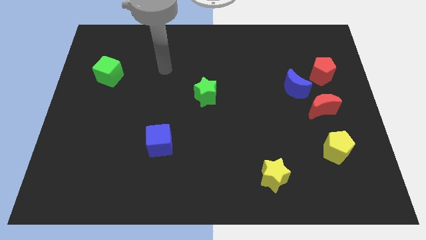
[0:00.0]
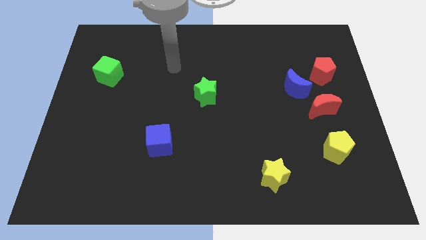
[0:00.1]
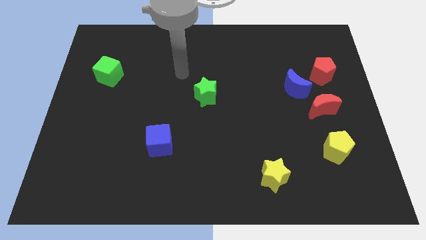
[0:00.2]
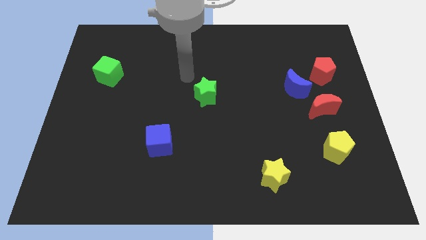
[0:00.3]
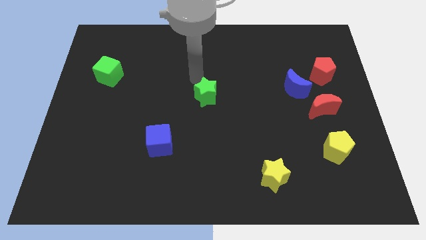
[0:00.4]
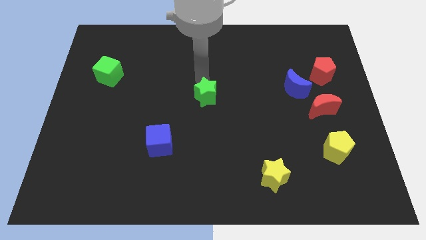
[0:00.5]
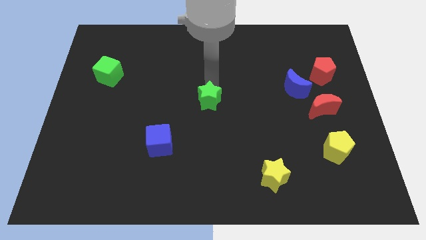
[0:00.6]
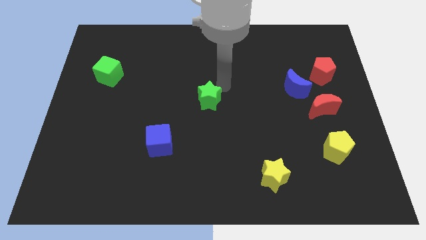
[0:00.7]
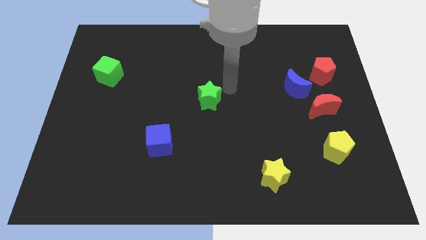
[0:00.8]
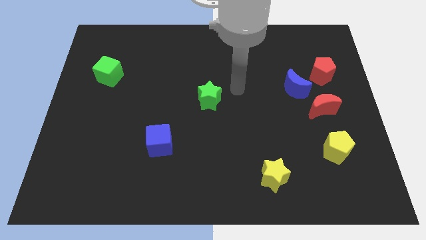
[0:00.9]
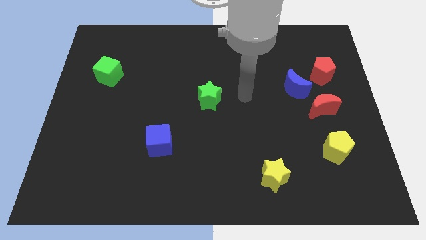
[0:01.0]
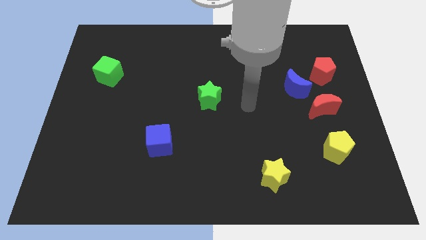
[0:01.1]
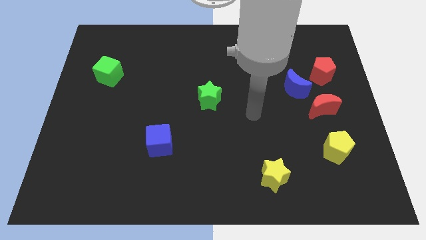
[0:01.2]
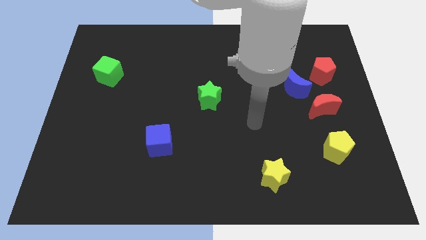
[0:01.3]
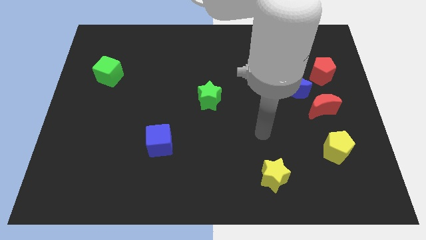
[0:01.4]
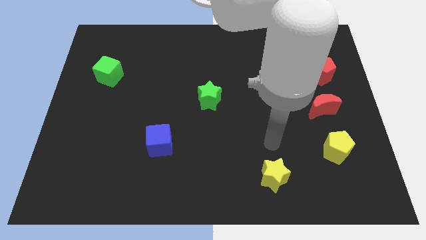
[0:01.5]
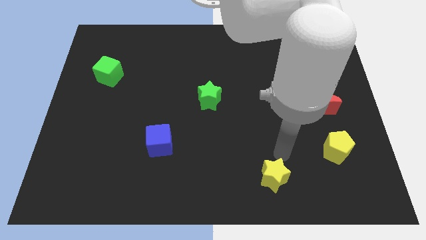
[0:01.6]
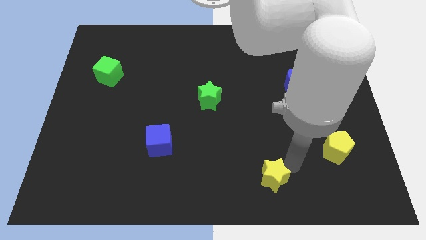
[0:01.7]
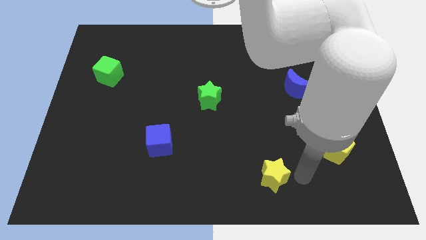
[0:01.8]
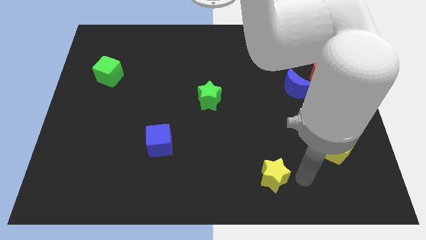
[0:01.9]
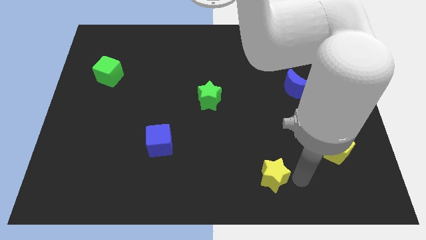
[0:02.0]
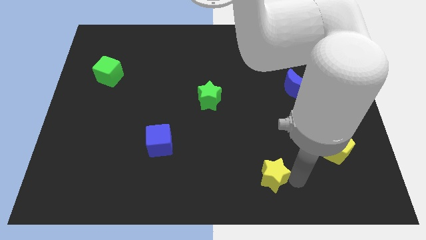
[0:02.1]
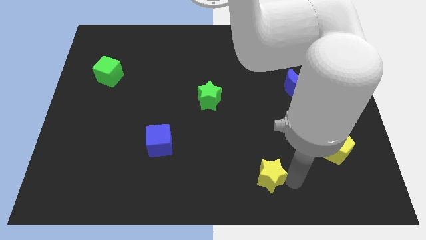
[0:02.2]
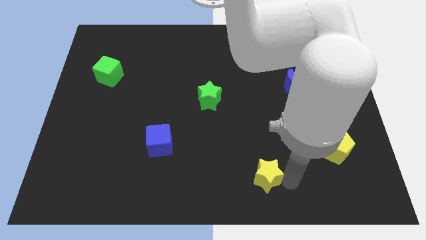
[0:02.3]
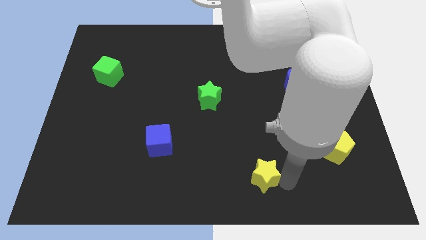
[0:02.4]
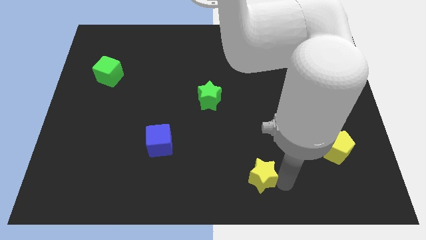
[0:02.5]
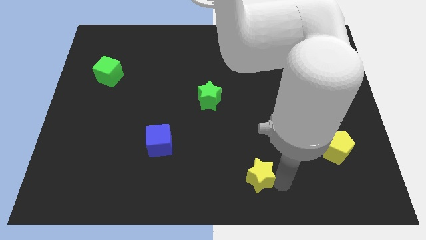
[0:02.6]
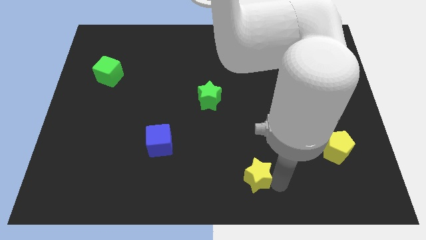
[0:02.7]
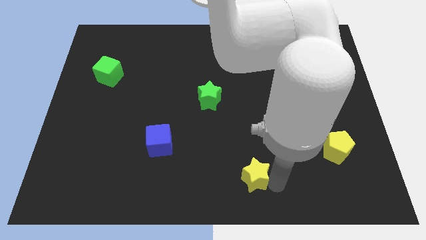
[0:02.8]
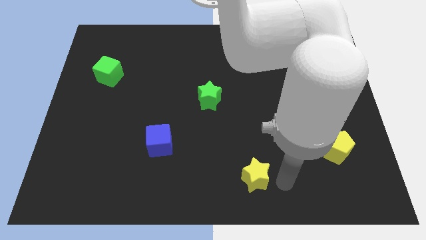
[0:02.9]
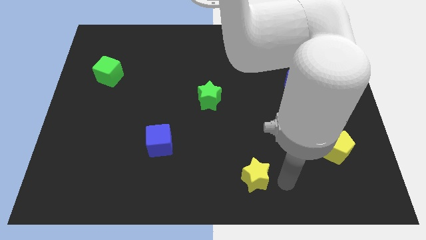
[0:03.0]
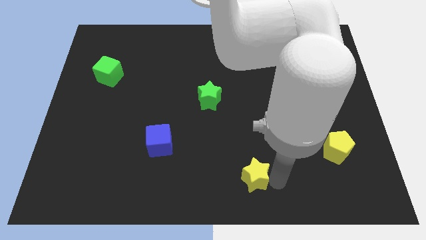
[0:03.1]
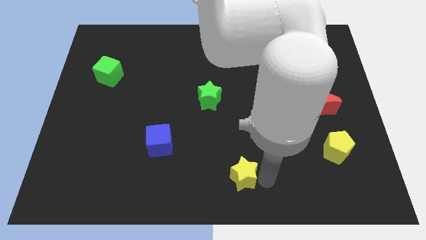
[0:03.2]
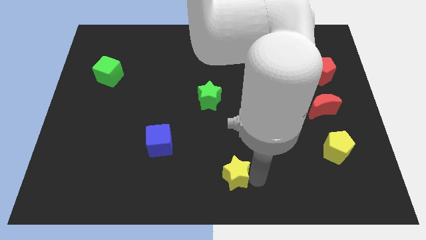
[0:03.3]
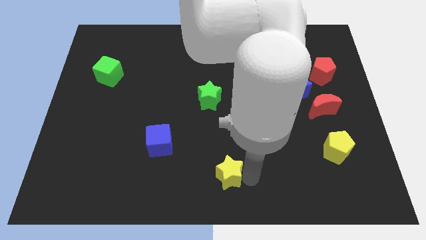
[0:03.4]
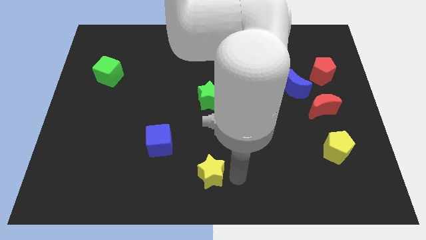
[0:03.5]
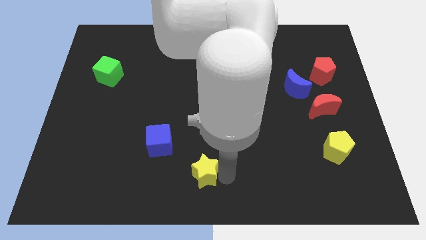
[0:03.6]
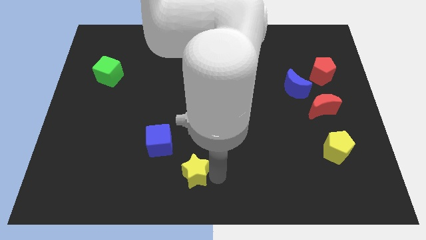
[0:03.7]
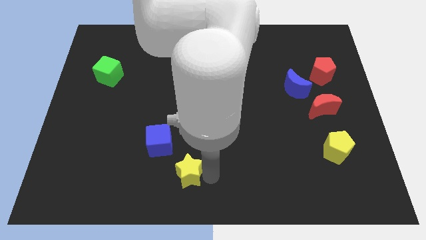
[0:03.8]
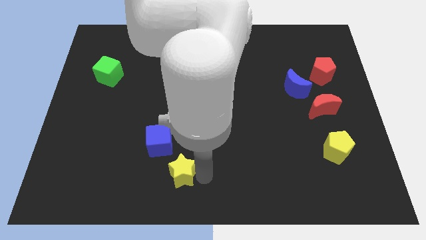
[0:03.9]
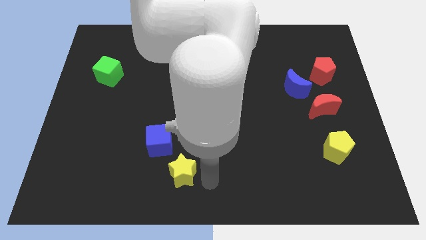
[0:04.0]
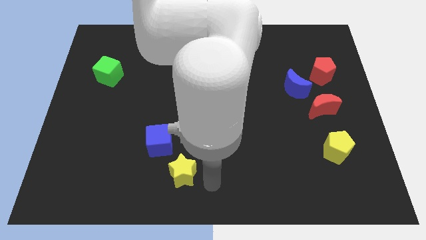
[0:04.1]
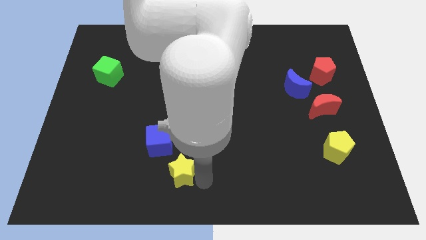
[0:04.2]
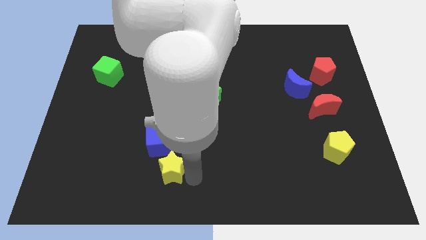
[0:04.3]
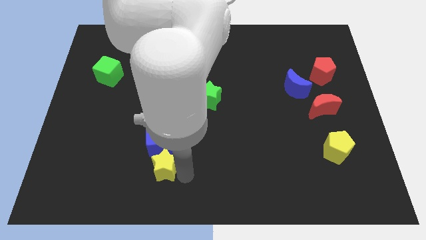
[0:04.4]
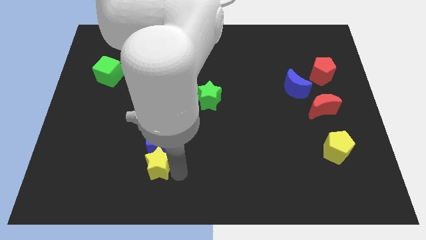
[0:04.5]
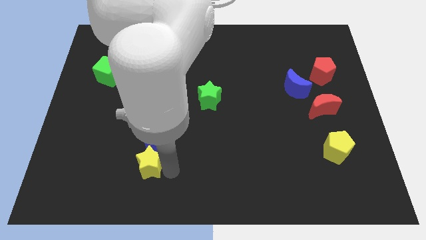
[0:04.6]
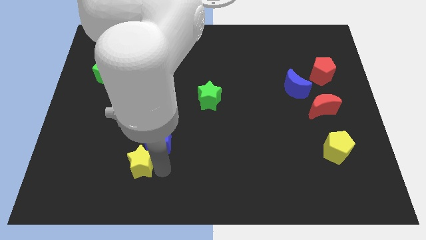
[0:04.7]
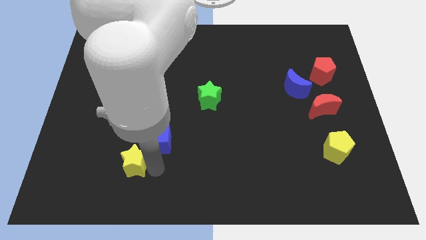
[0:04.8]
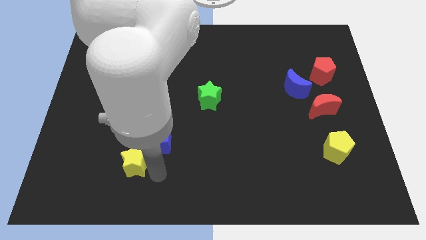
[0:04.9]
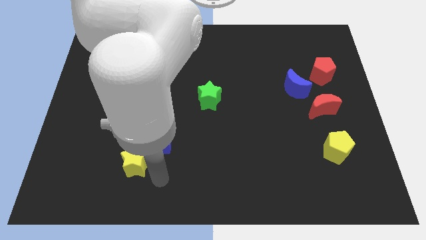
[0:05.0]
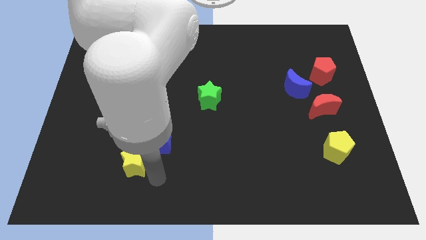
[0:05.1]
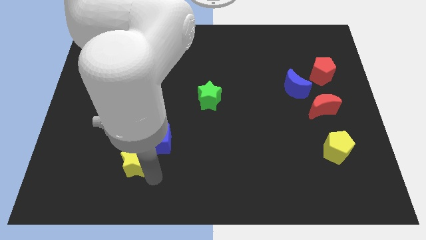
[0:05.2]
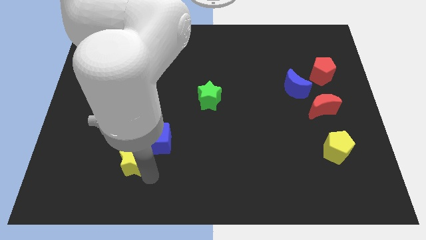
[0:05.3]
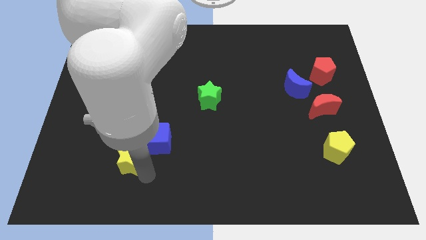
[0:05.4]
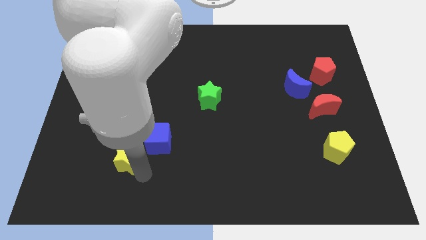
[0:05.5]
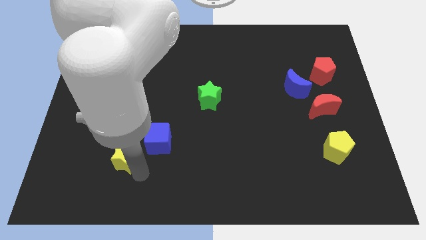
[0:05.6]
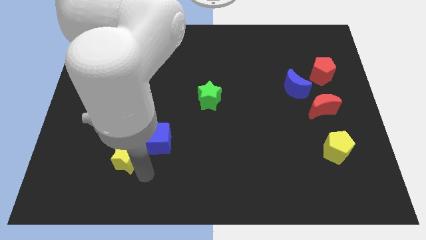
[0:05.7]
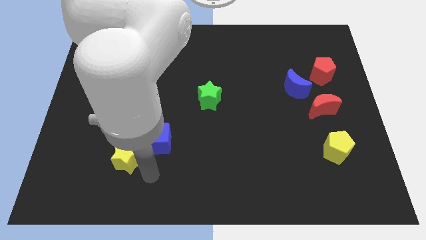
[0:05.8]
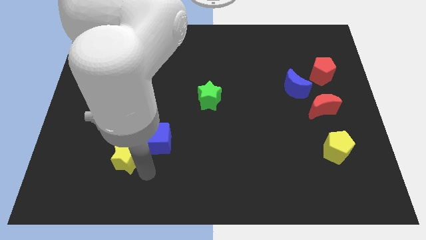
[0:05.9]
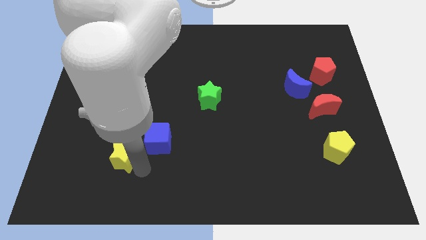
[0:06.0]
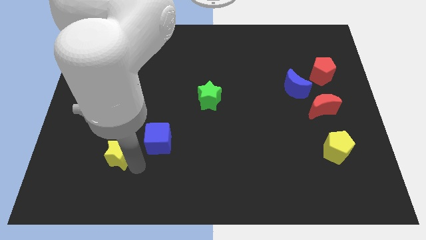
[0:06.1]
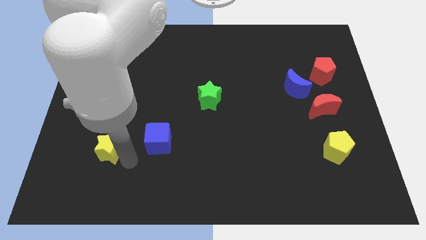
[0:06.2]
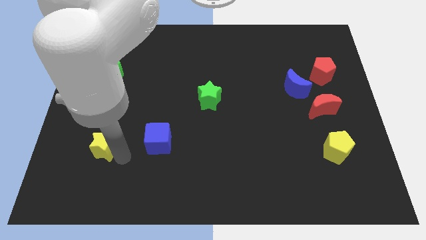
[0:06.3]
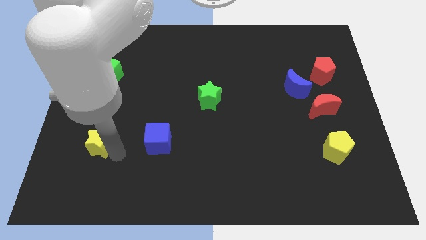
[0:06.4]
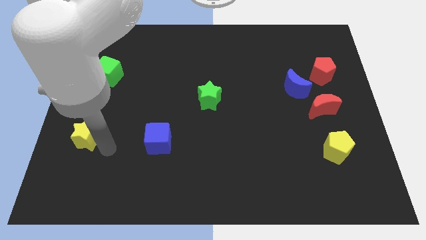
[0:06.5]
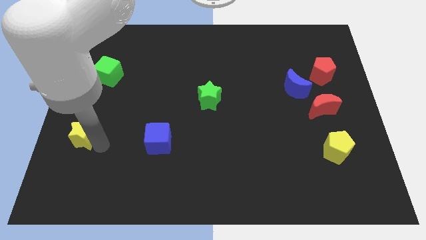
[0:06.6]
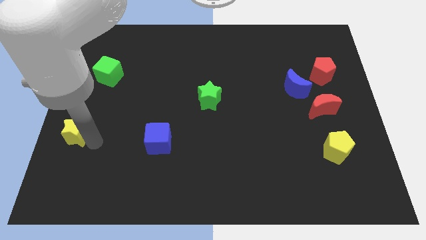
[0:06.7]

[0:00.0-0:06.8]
put the yellow star to the left side of the board
